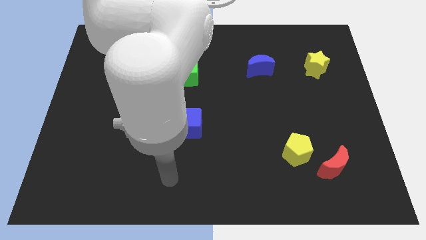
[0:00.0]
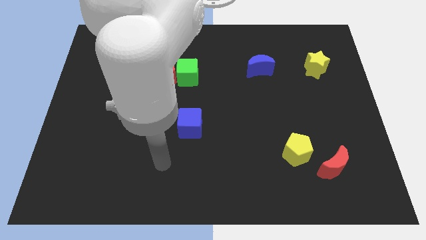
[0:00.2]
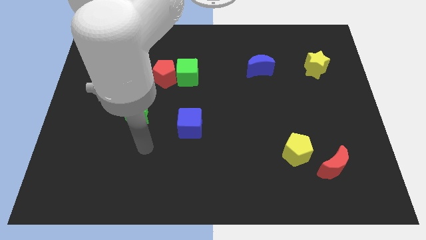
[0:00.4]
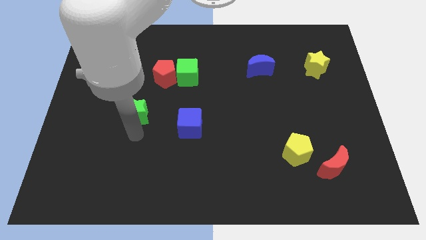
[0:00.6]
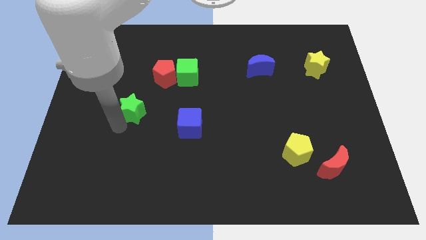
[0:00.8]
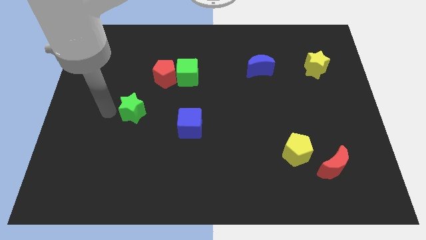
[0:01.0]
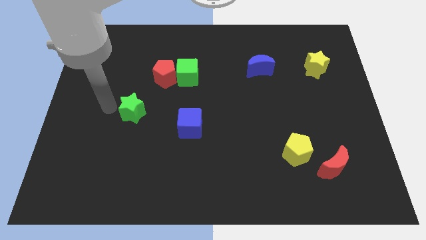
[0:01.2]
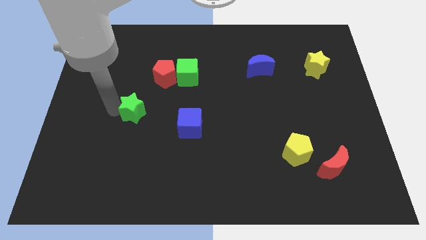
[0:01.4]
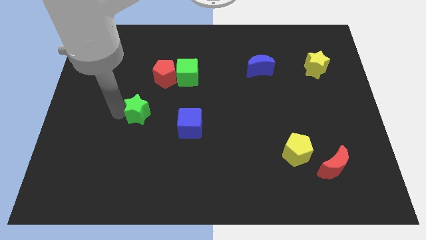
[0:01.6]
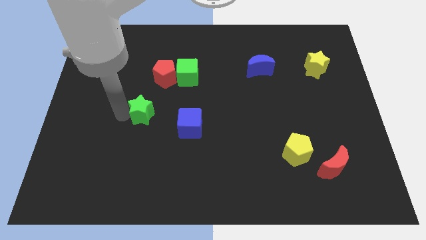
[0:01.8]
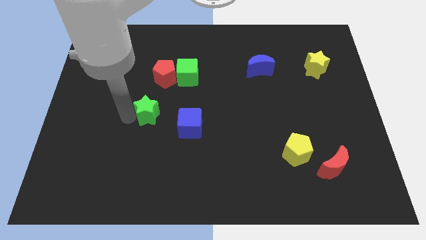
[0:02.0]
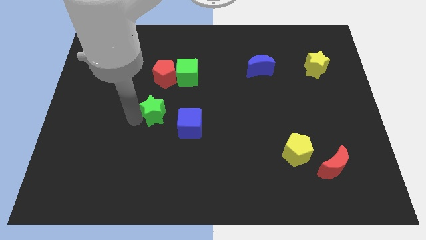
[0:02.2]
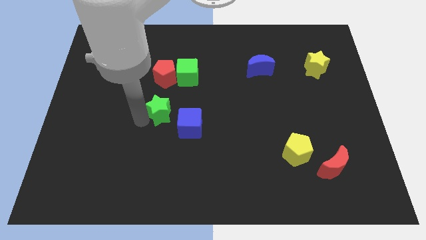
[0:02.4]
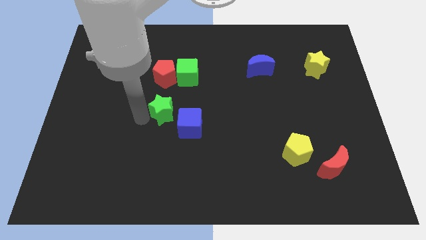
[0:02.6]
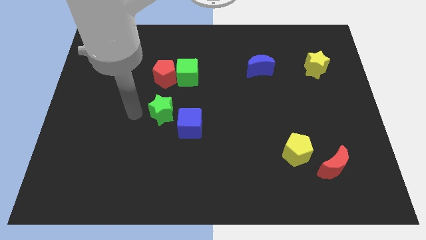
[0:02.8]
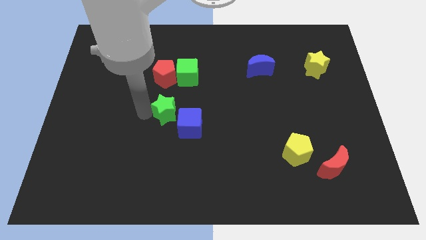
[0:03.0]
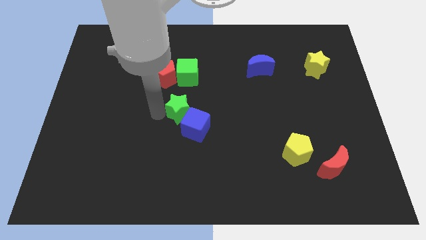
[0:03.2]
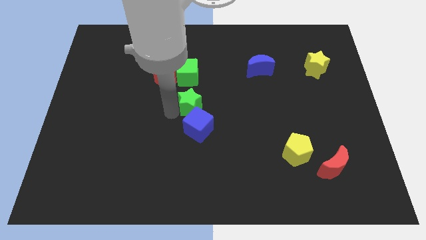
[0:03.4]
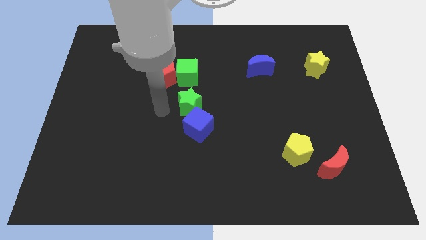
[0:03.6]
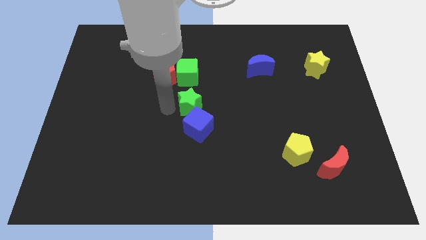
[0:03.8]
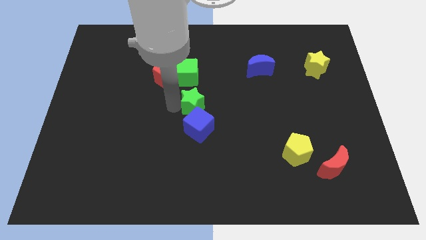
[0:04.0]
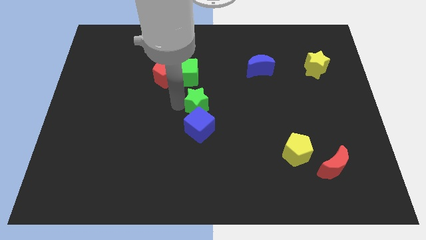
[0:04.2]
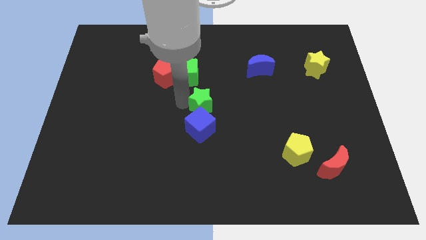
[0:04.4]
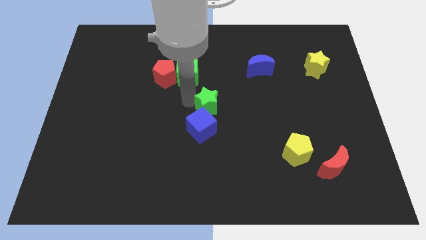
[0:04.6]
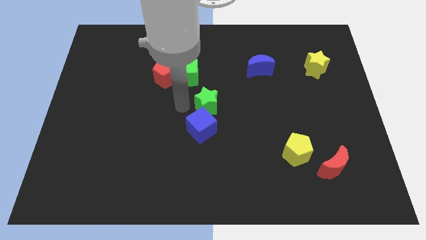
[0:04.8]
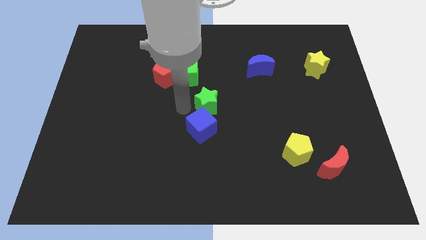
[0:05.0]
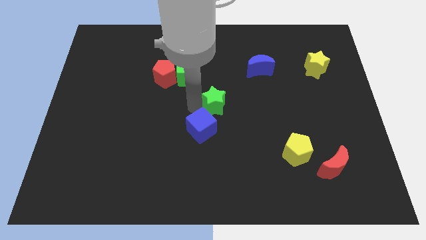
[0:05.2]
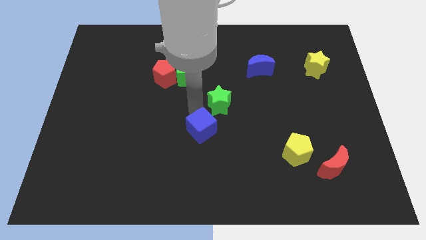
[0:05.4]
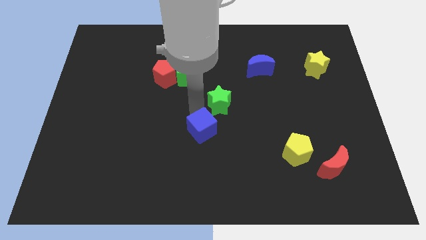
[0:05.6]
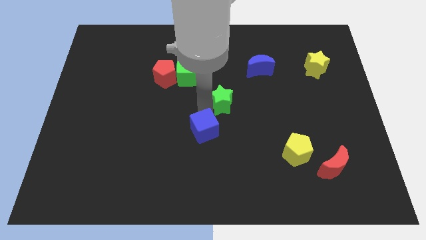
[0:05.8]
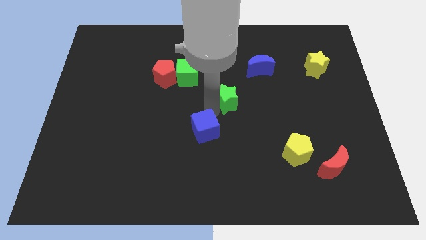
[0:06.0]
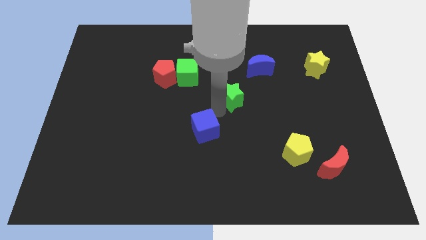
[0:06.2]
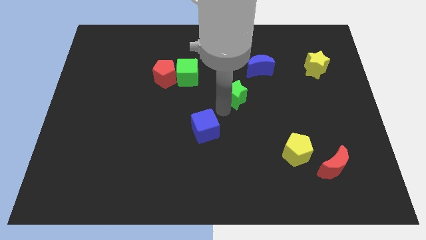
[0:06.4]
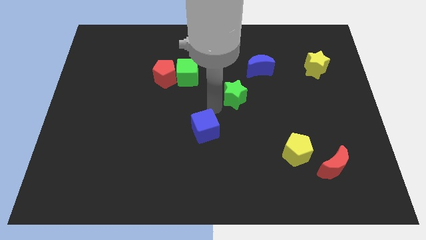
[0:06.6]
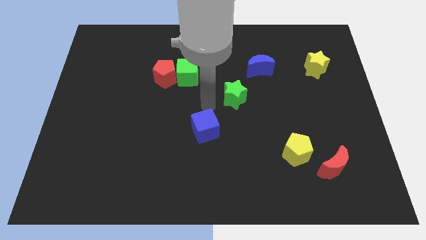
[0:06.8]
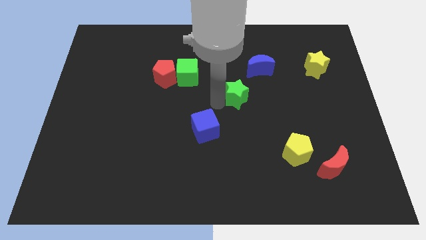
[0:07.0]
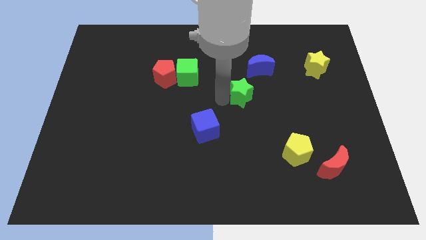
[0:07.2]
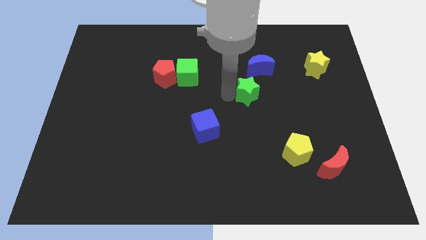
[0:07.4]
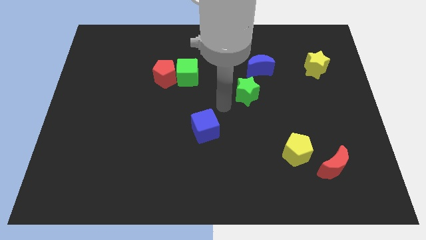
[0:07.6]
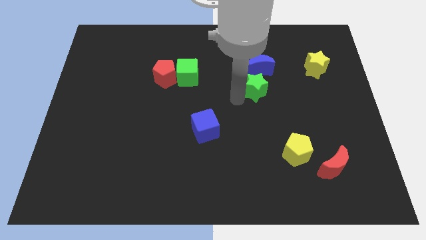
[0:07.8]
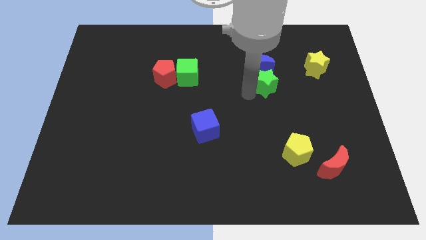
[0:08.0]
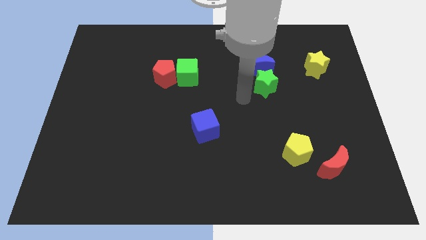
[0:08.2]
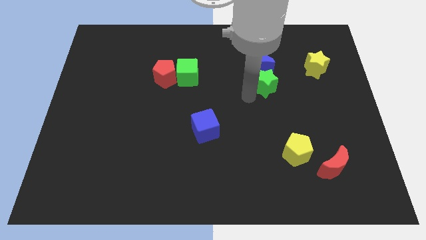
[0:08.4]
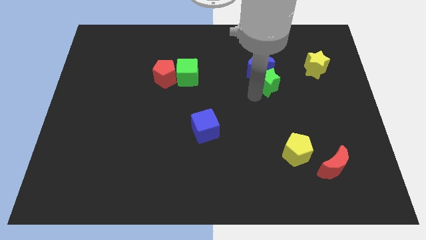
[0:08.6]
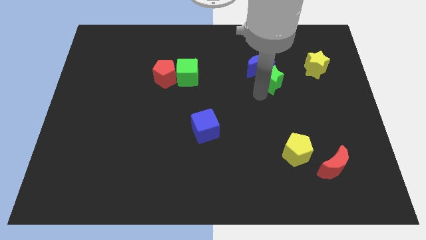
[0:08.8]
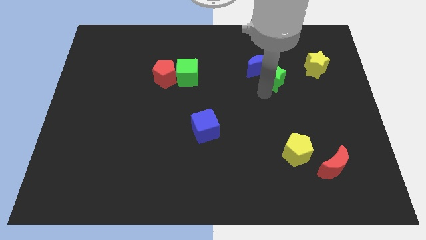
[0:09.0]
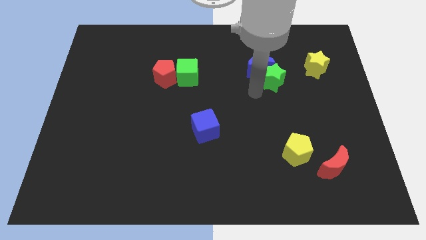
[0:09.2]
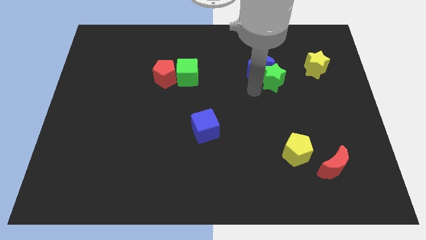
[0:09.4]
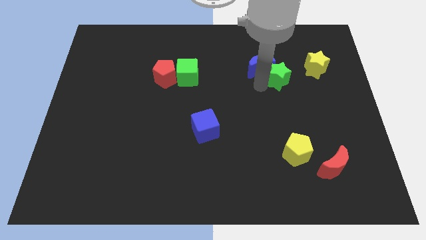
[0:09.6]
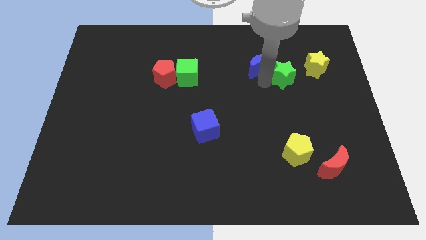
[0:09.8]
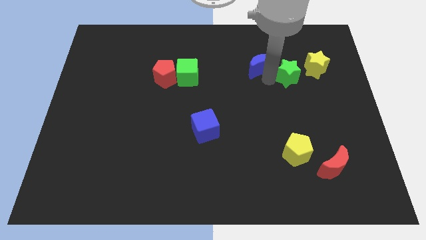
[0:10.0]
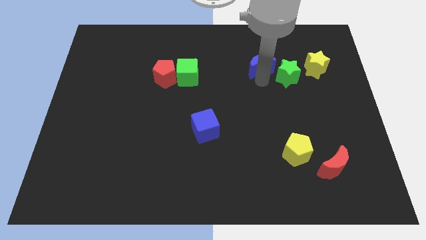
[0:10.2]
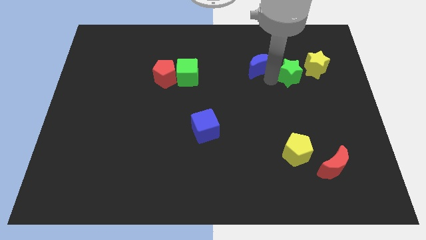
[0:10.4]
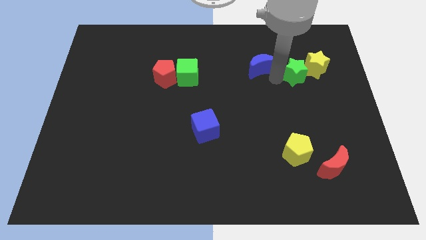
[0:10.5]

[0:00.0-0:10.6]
move the green star towards the yellow star

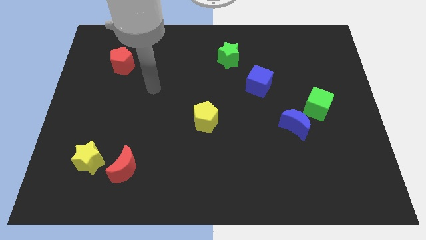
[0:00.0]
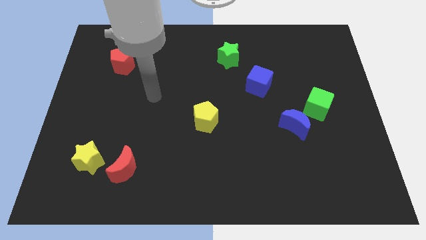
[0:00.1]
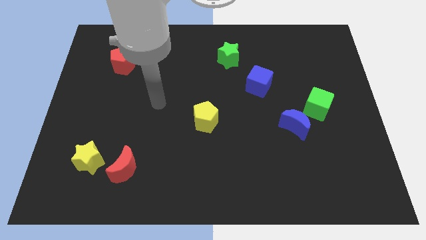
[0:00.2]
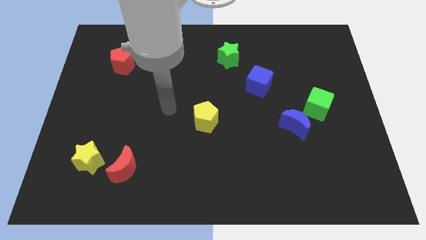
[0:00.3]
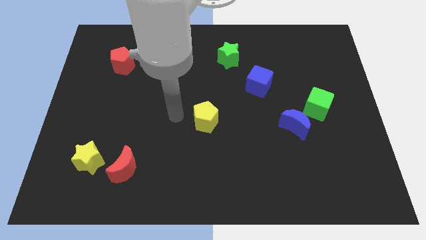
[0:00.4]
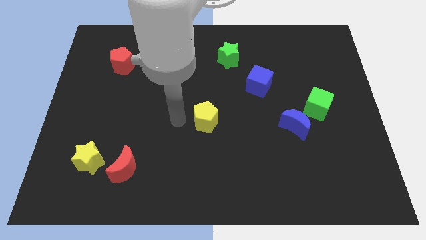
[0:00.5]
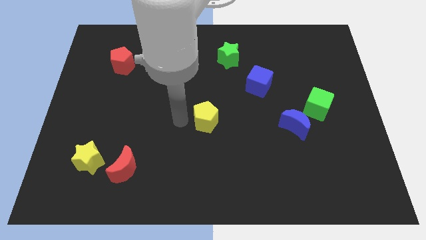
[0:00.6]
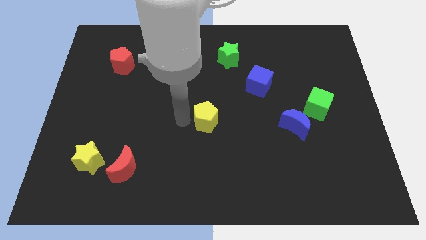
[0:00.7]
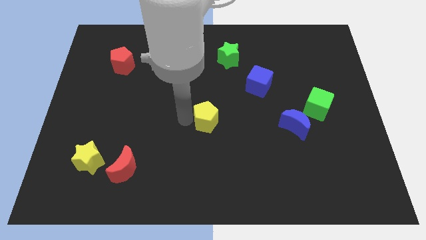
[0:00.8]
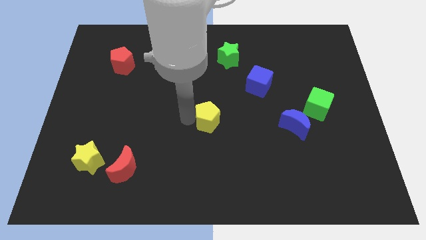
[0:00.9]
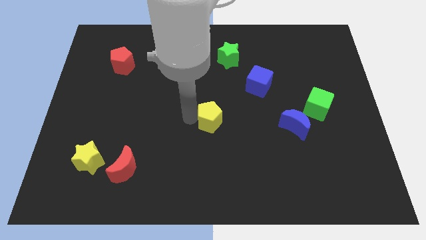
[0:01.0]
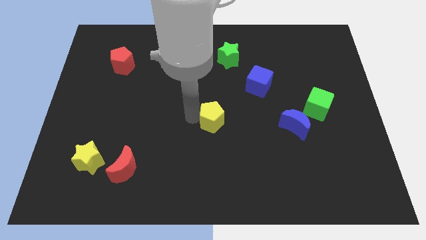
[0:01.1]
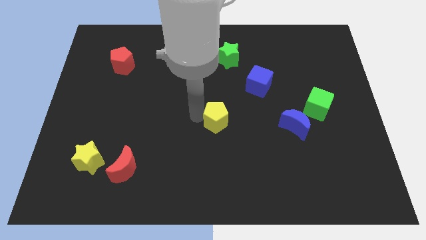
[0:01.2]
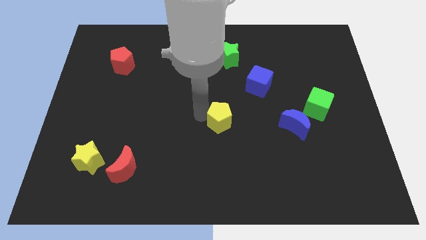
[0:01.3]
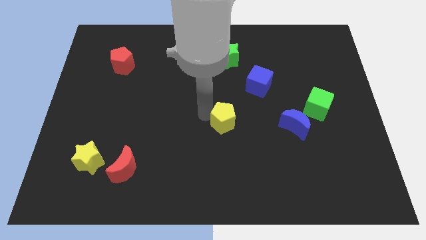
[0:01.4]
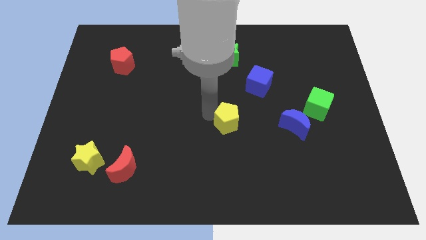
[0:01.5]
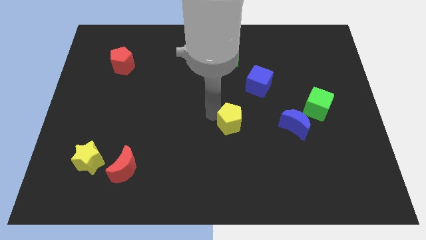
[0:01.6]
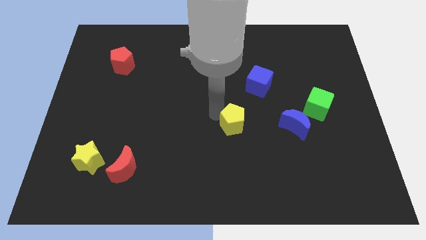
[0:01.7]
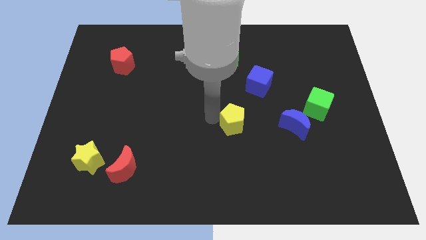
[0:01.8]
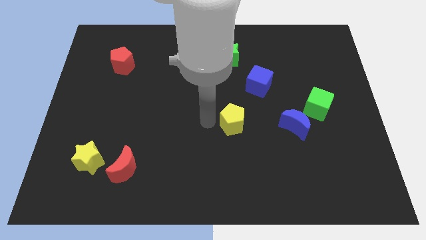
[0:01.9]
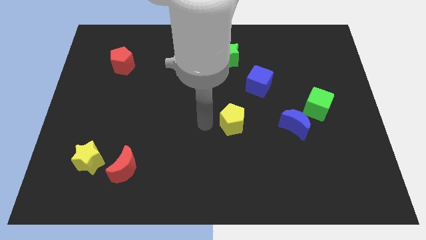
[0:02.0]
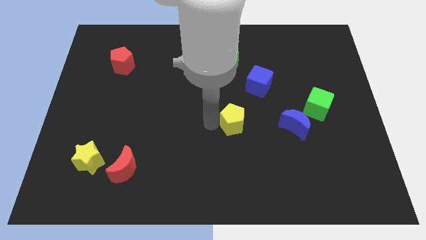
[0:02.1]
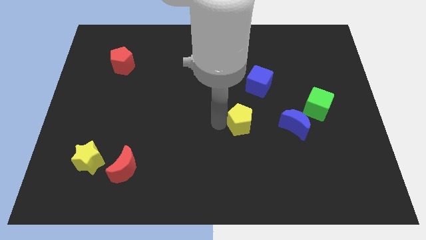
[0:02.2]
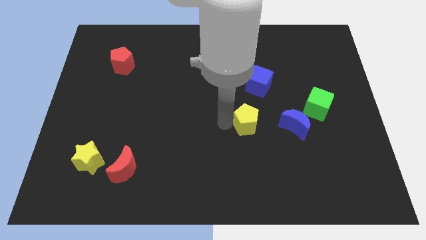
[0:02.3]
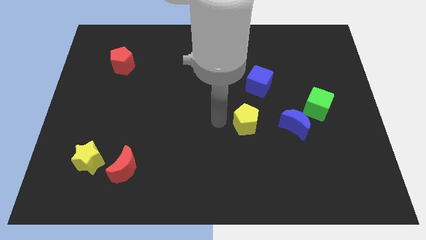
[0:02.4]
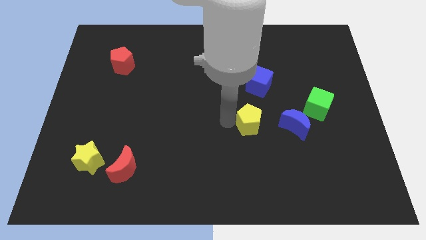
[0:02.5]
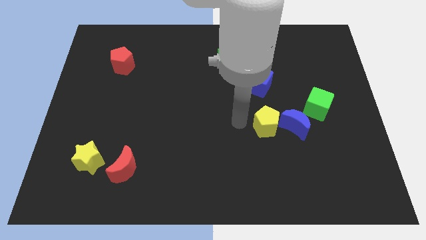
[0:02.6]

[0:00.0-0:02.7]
put the yellow pentagon next to the blue moon

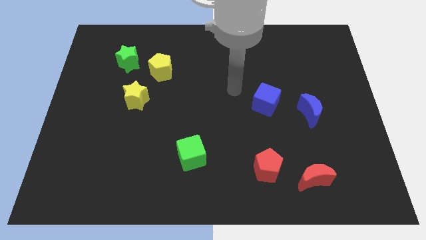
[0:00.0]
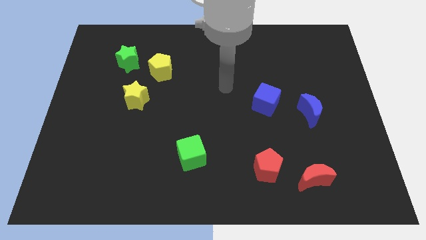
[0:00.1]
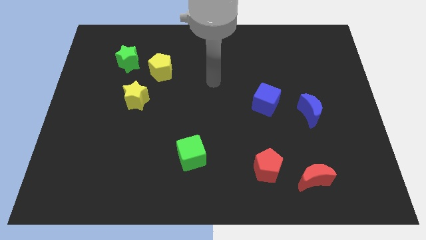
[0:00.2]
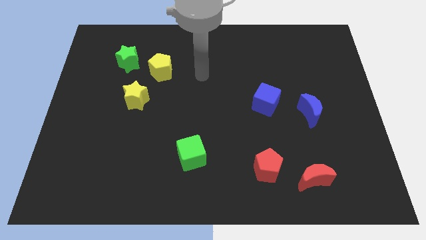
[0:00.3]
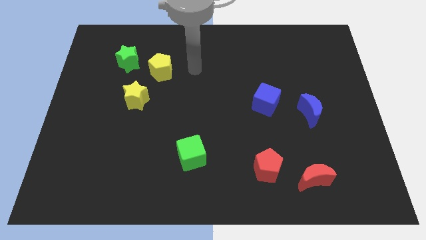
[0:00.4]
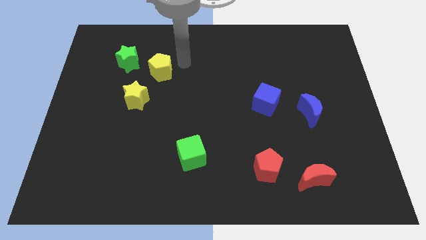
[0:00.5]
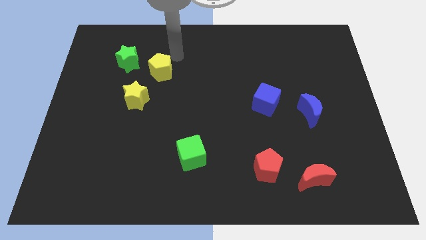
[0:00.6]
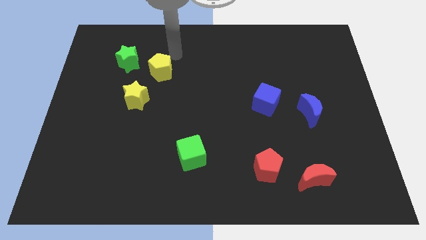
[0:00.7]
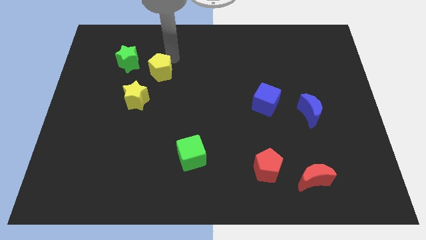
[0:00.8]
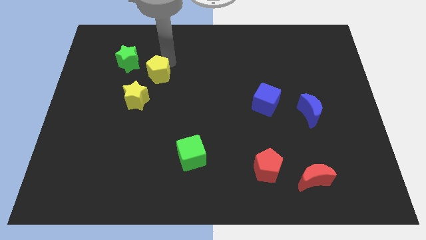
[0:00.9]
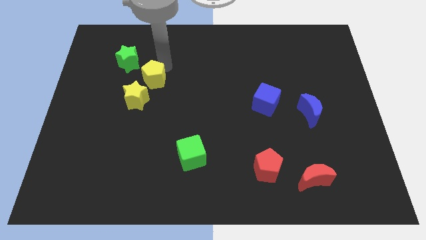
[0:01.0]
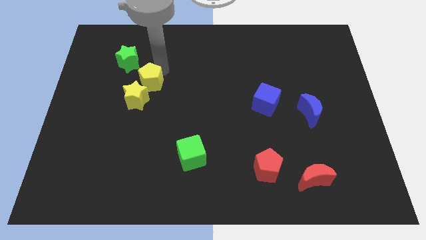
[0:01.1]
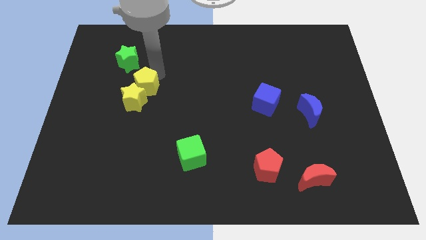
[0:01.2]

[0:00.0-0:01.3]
slide the yellow pentagon next to the yellow star
